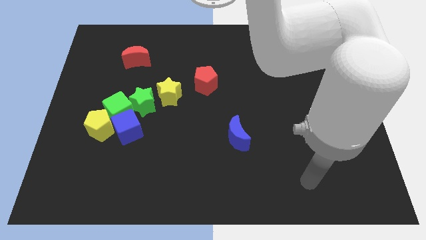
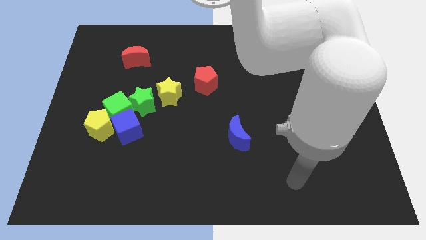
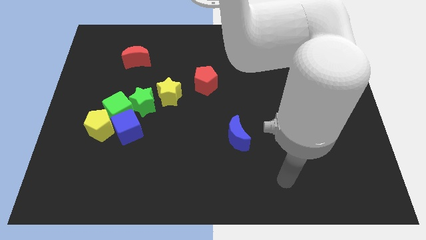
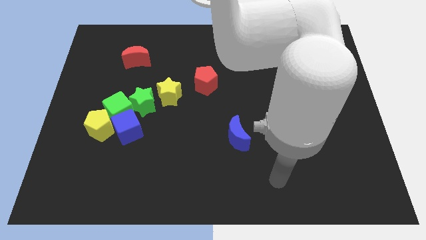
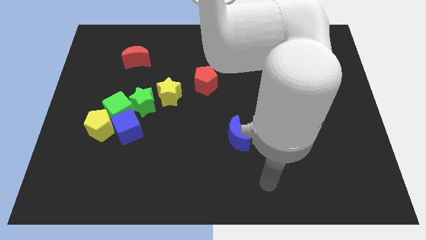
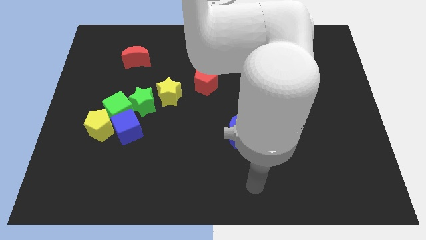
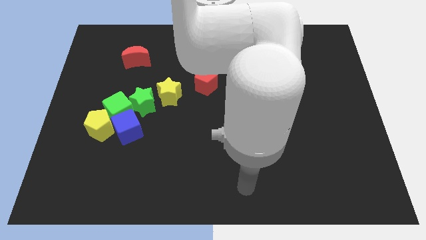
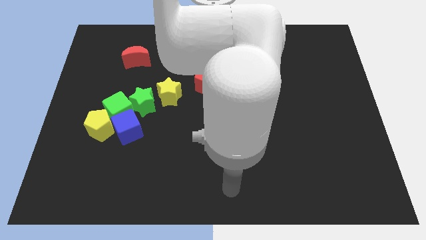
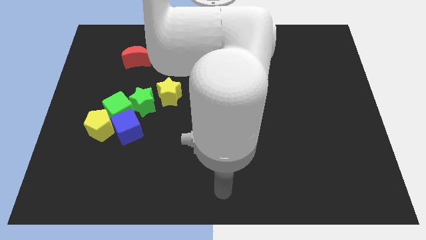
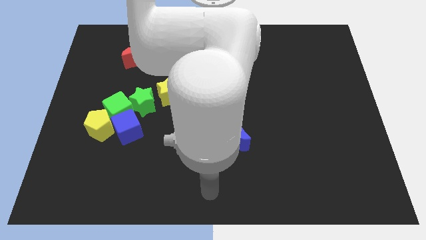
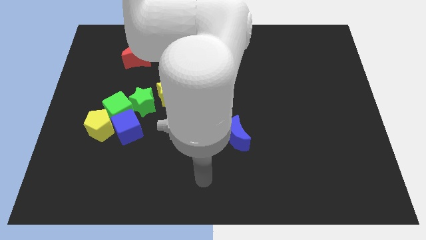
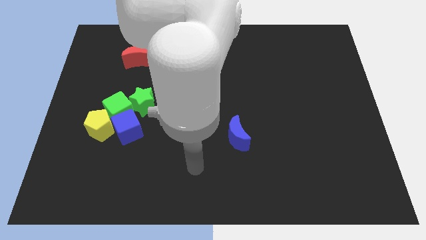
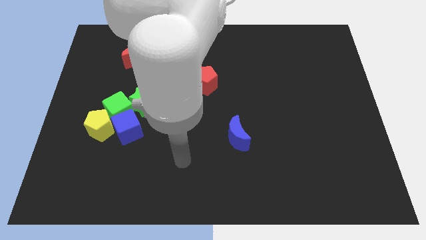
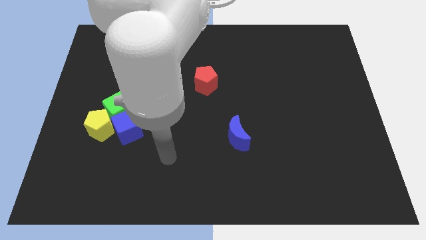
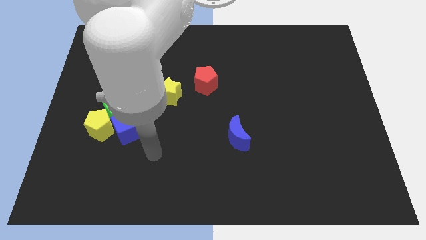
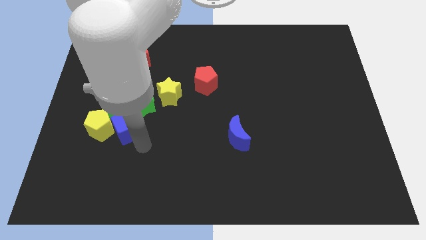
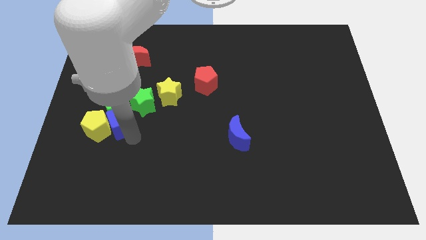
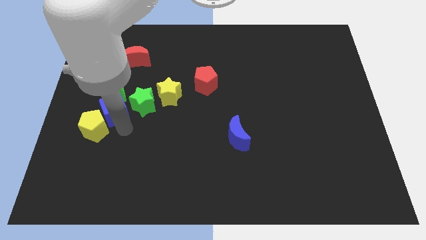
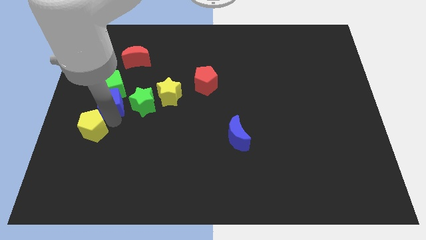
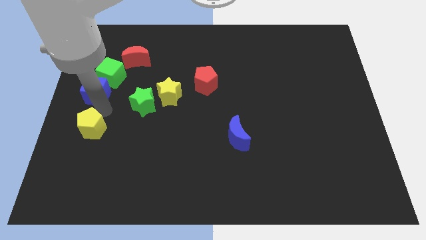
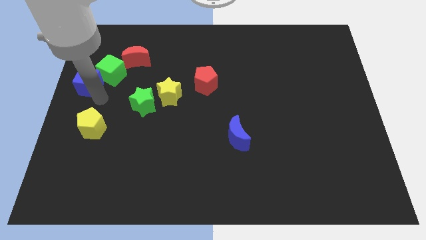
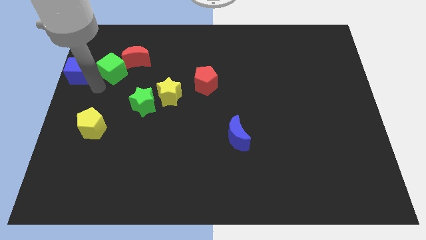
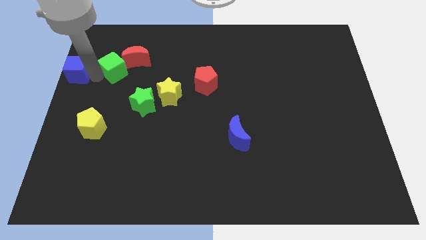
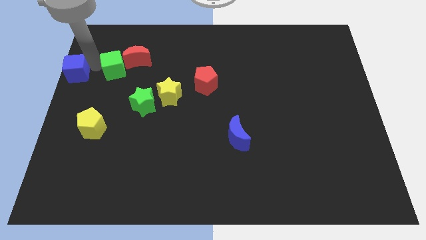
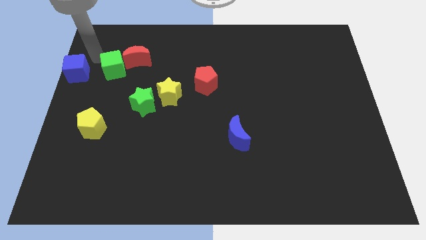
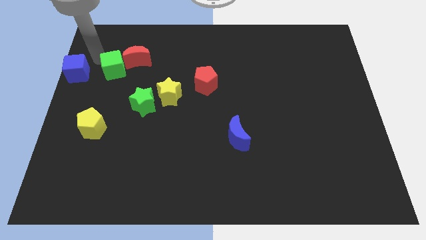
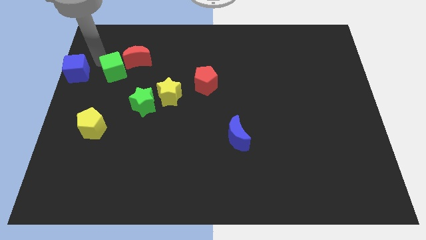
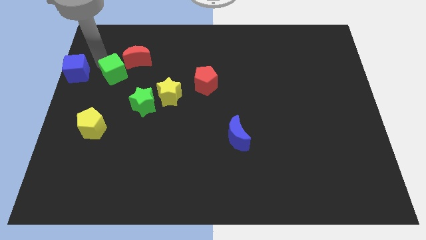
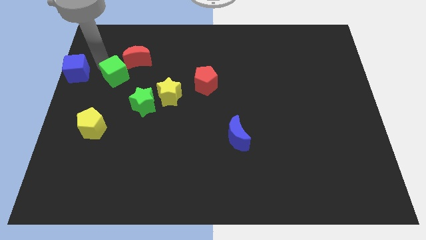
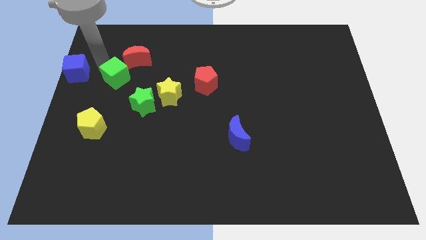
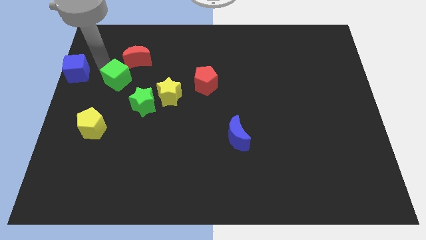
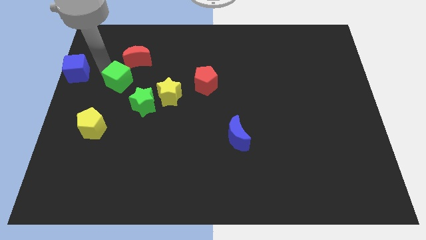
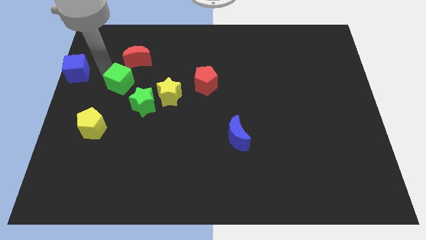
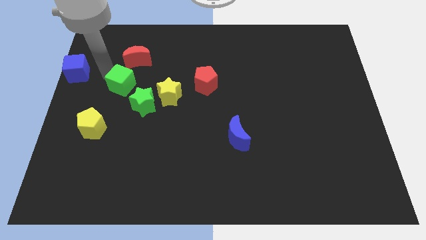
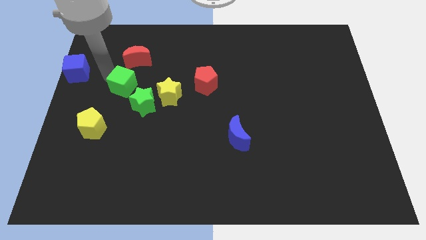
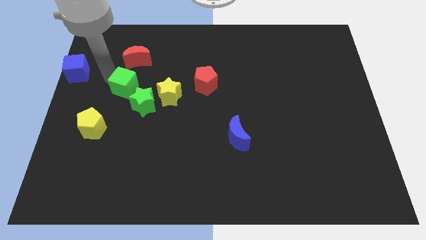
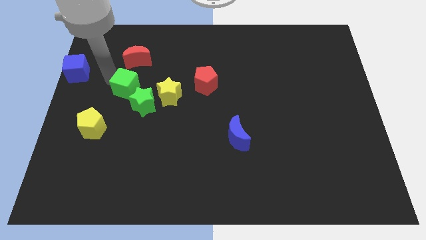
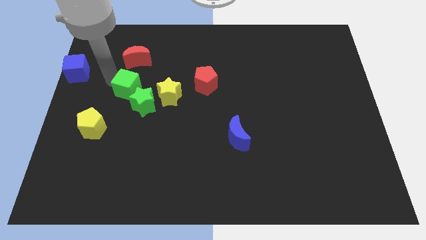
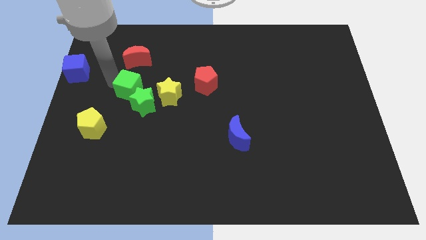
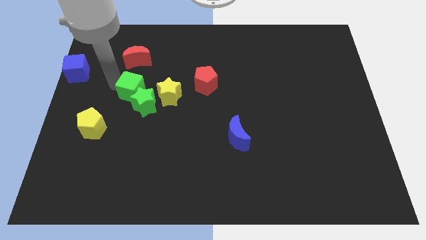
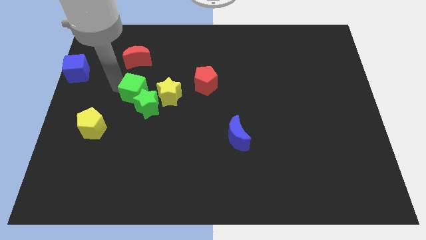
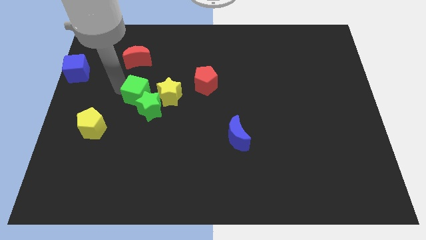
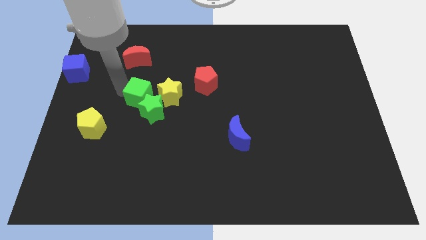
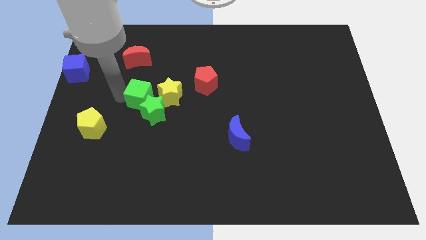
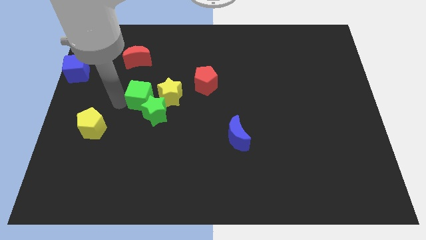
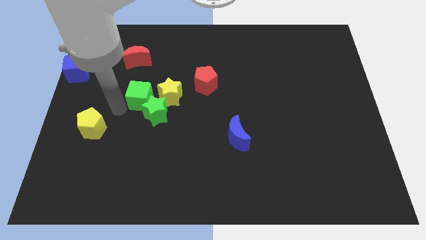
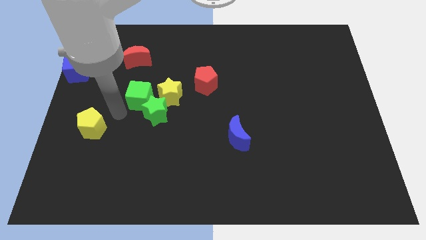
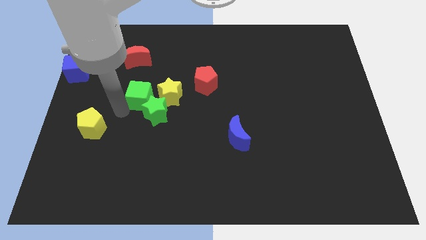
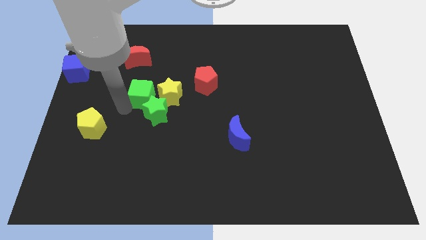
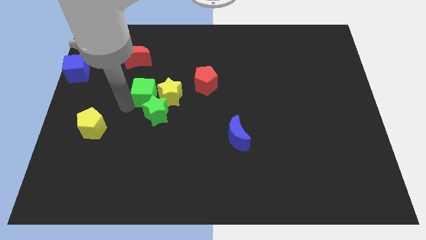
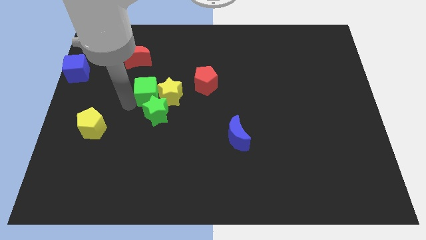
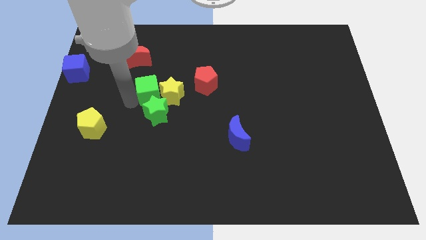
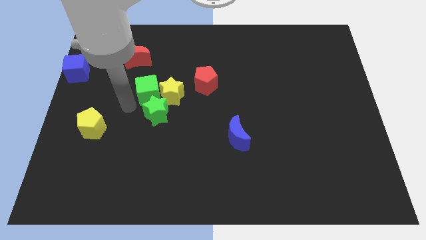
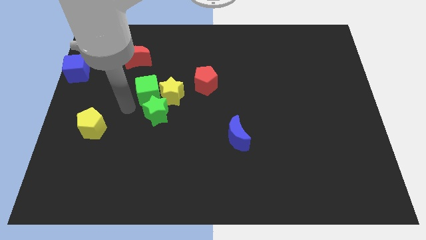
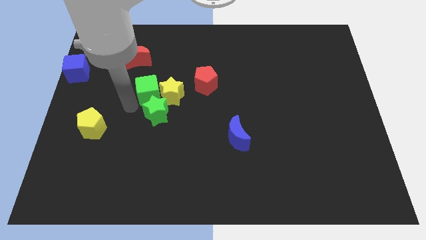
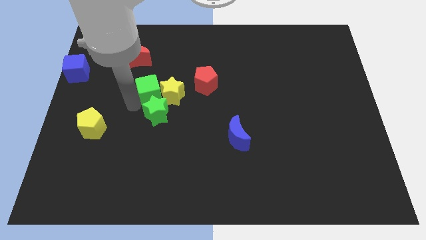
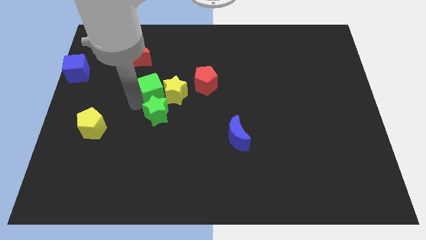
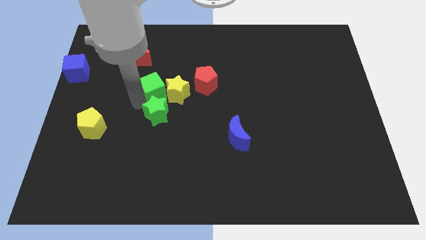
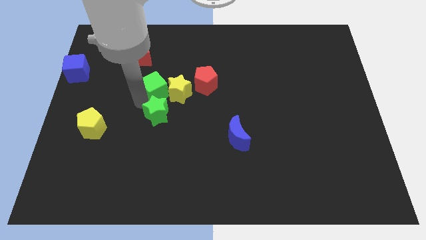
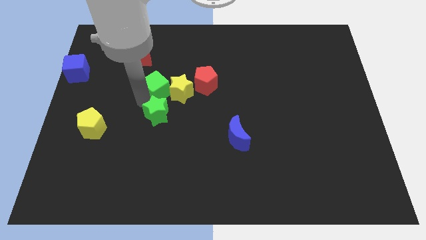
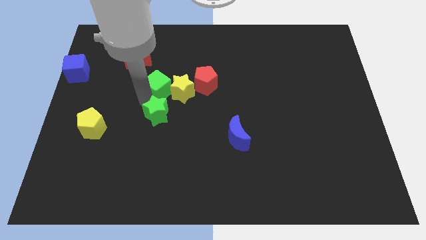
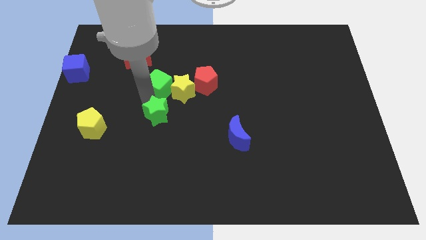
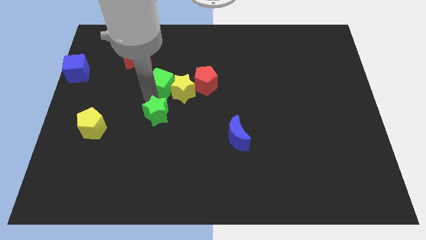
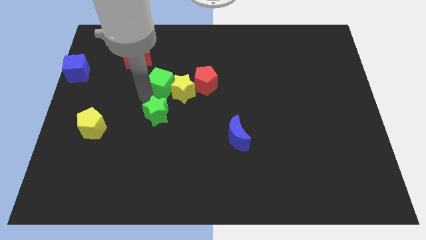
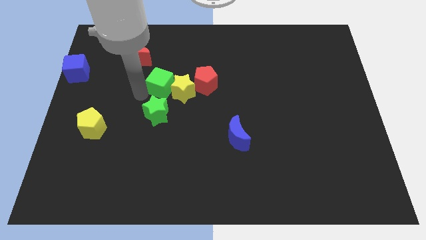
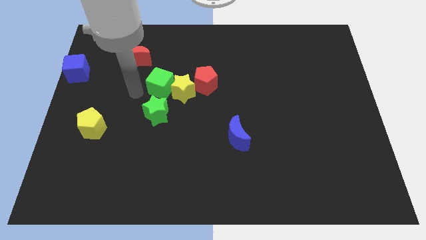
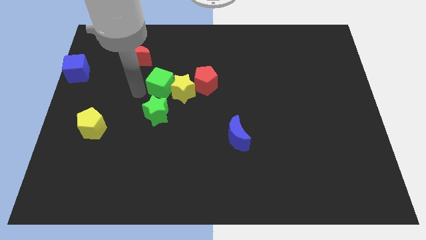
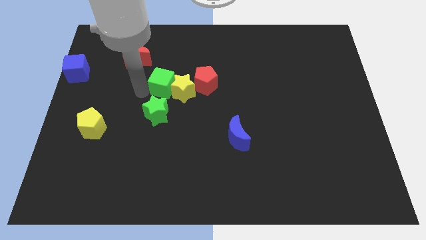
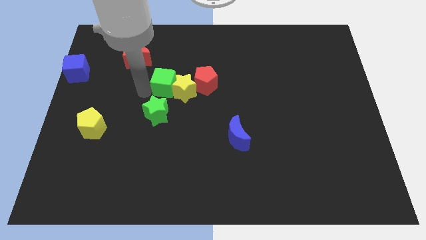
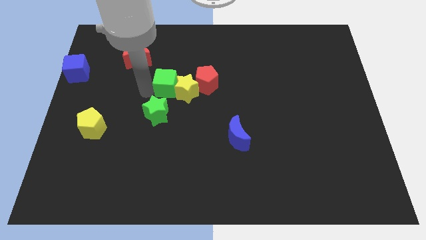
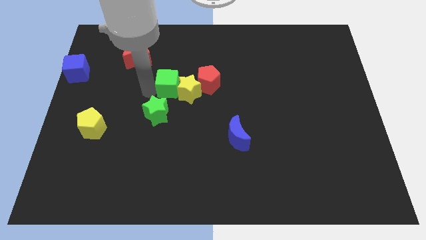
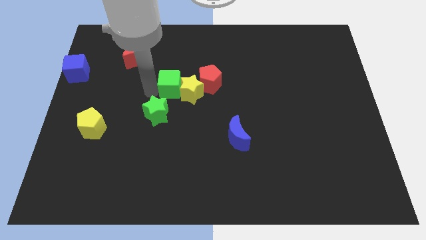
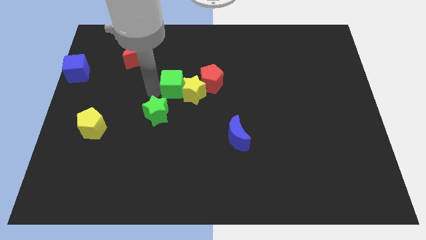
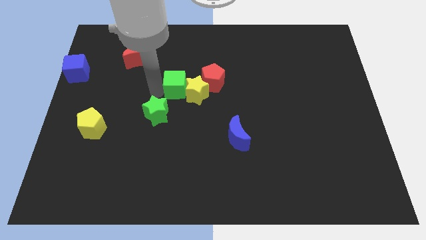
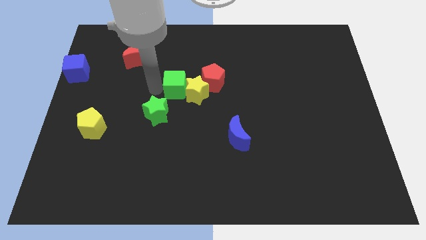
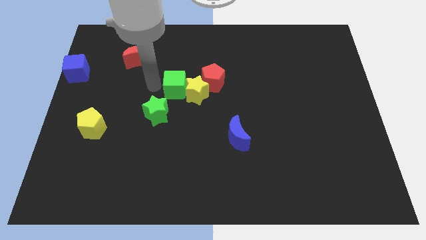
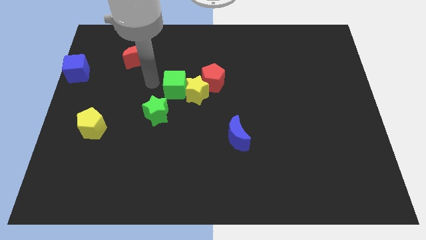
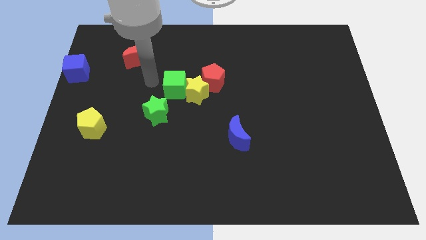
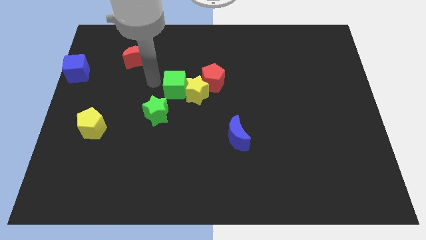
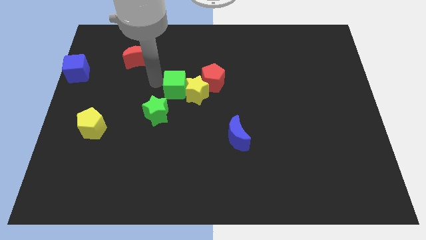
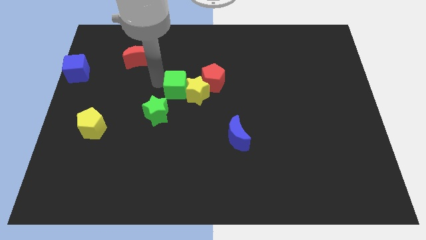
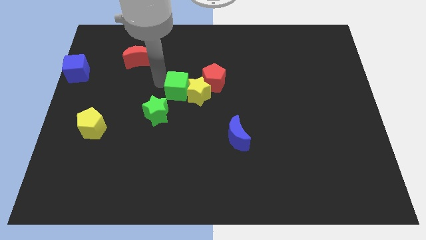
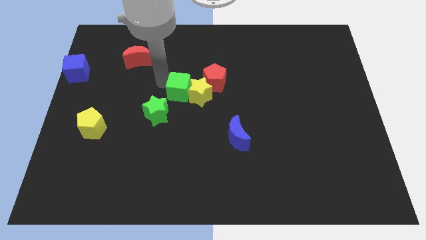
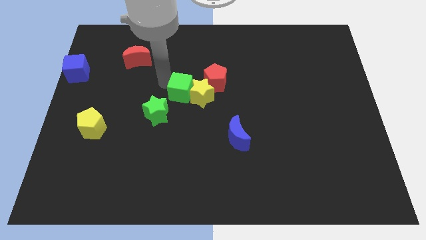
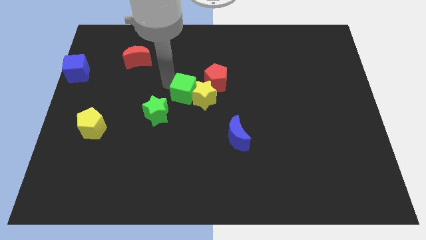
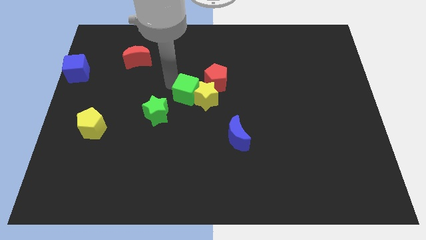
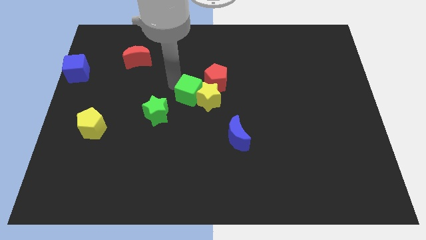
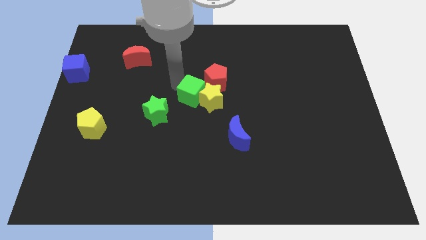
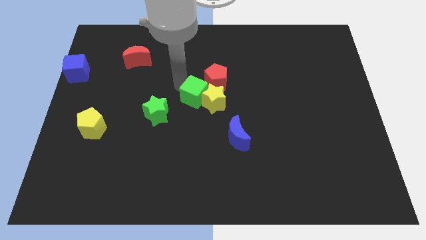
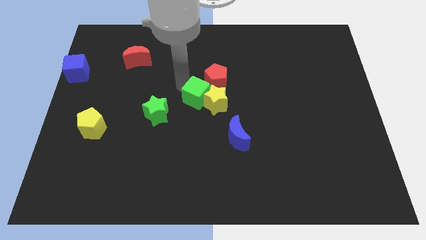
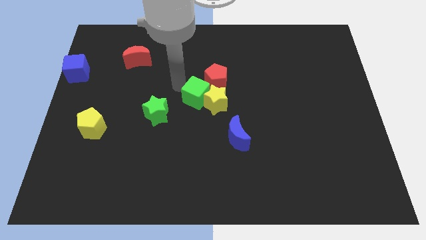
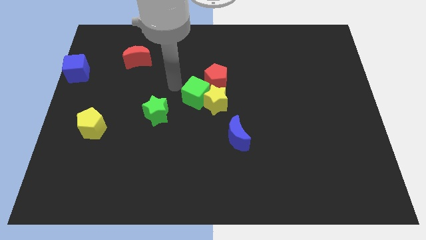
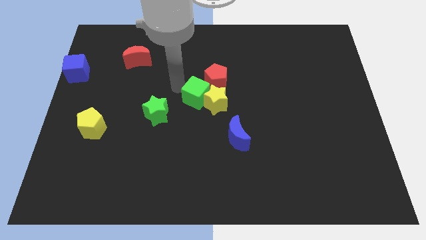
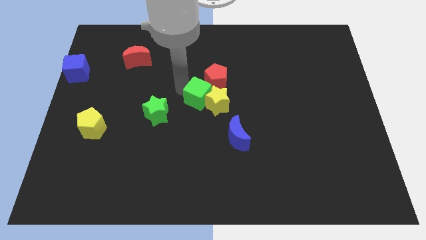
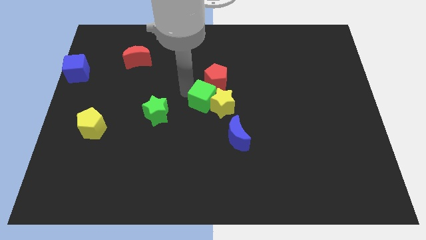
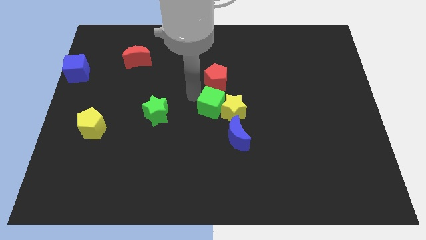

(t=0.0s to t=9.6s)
push the green cube right
